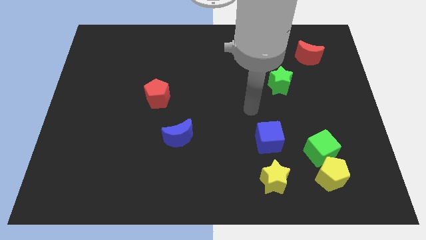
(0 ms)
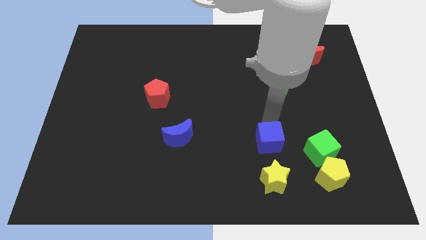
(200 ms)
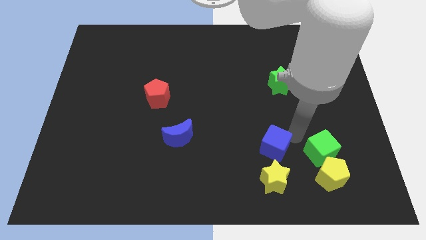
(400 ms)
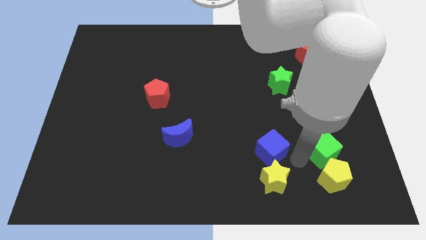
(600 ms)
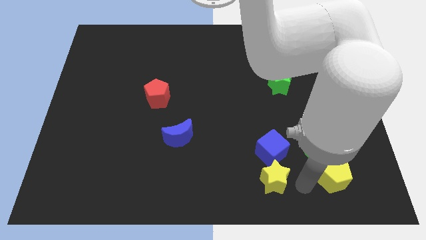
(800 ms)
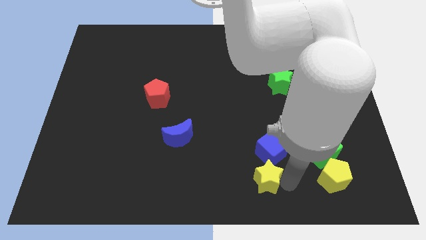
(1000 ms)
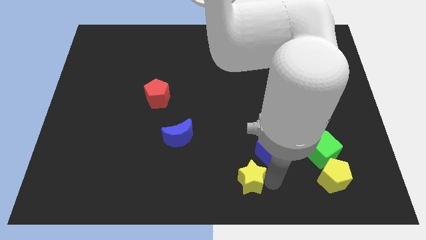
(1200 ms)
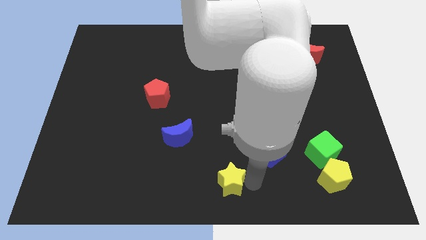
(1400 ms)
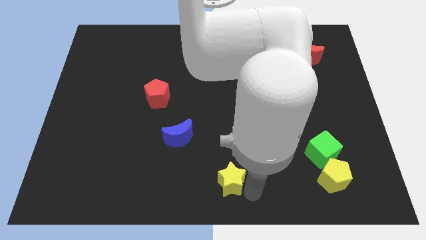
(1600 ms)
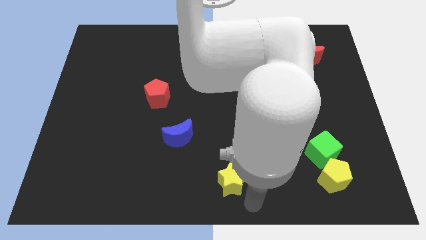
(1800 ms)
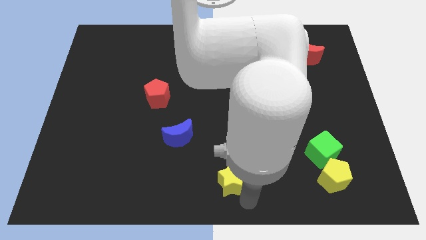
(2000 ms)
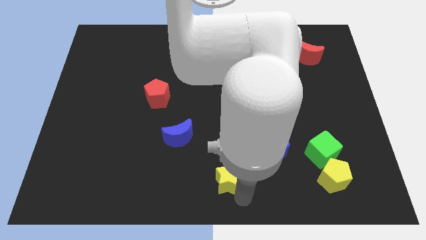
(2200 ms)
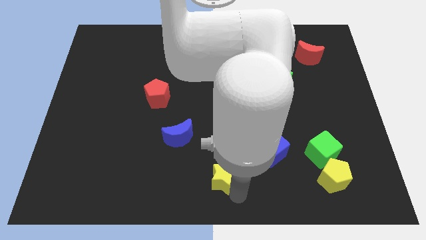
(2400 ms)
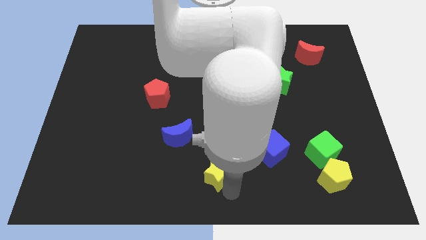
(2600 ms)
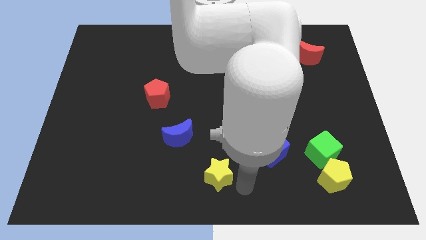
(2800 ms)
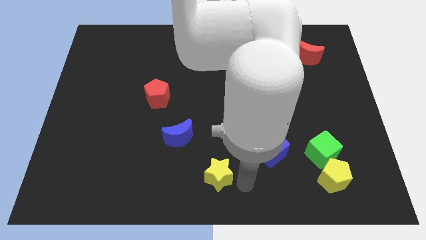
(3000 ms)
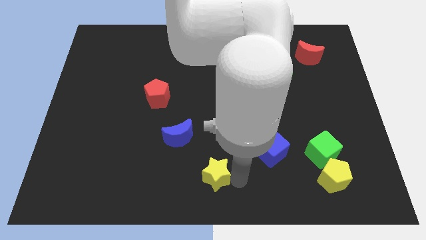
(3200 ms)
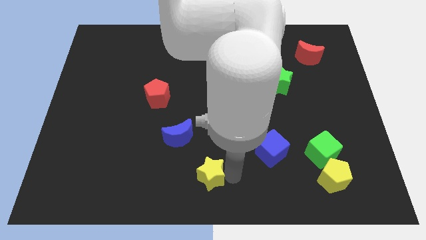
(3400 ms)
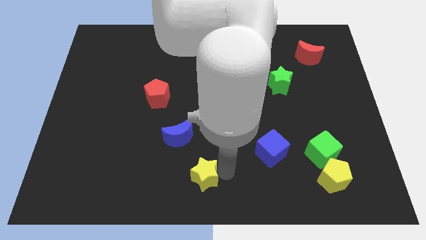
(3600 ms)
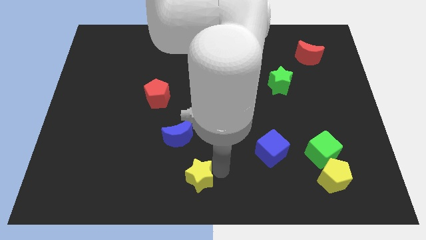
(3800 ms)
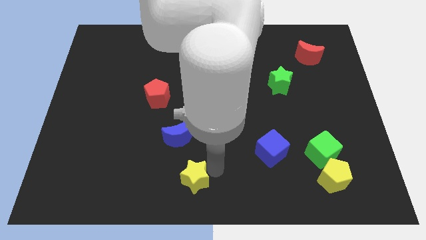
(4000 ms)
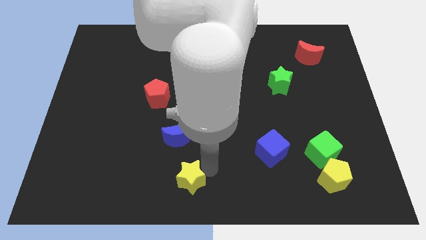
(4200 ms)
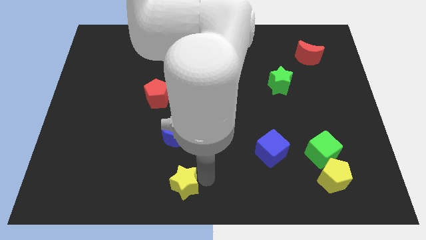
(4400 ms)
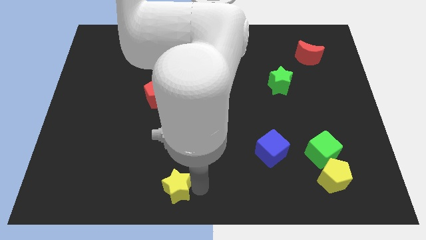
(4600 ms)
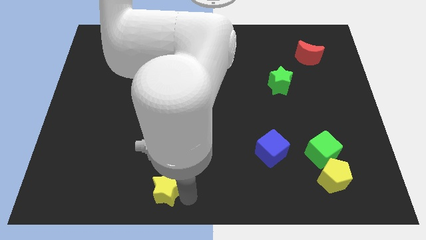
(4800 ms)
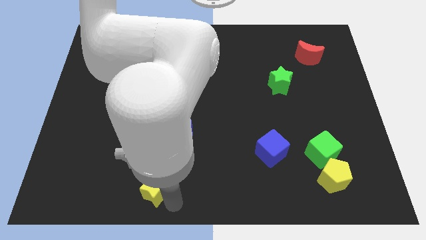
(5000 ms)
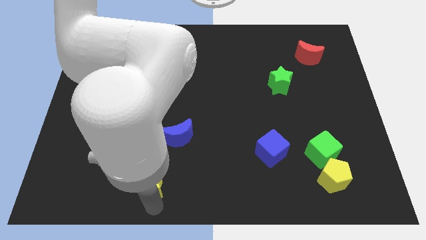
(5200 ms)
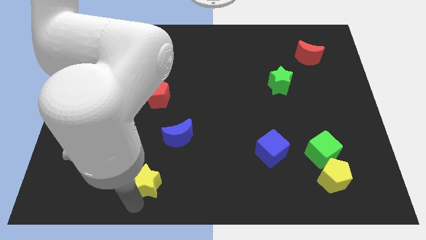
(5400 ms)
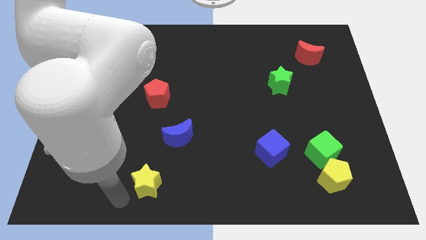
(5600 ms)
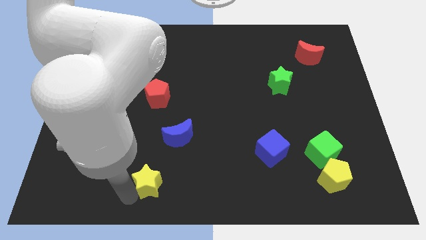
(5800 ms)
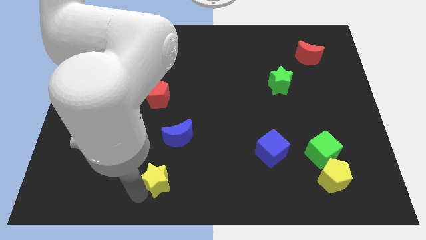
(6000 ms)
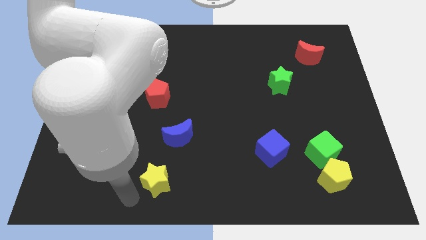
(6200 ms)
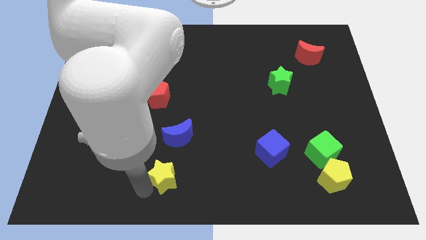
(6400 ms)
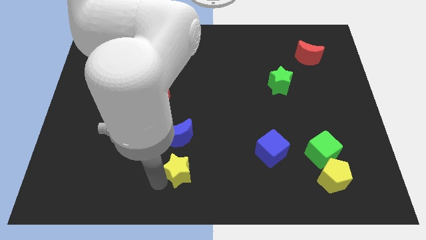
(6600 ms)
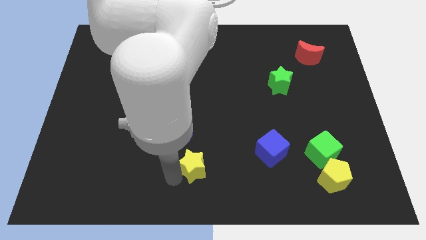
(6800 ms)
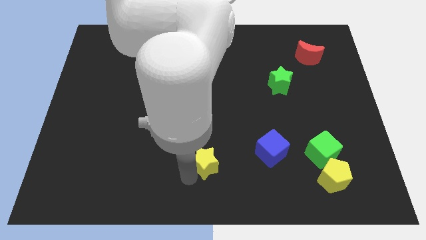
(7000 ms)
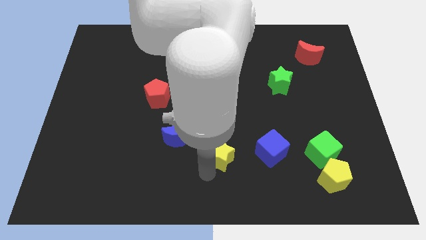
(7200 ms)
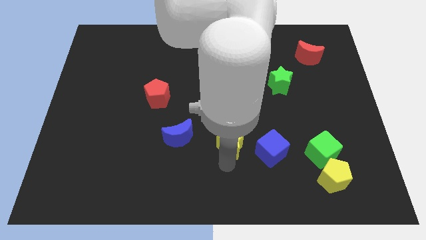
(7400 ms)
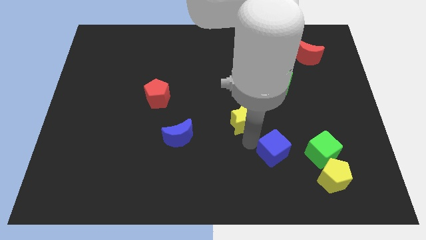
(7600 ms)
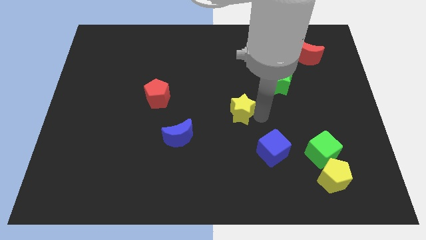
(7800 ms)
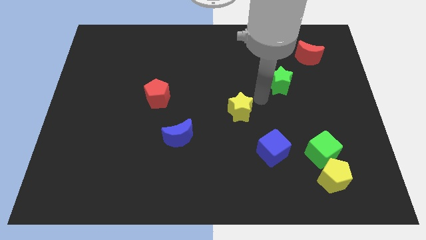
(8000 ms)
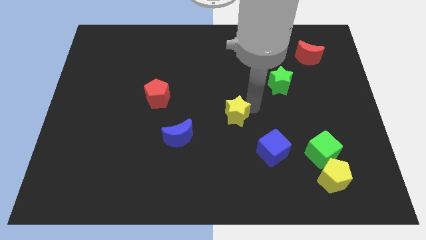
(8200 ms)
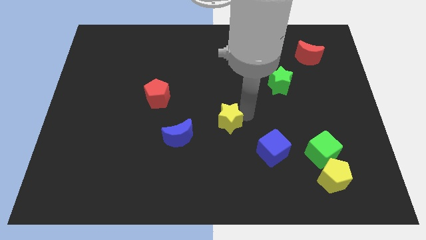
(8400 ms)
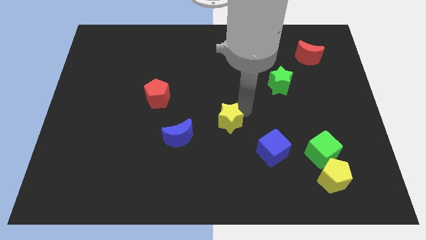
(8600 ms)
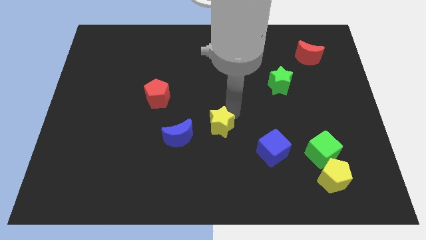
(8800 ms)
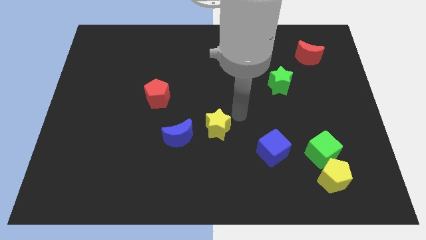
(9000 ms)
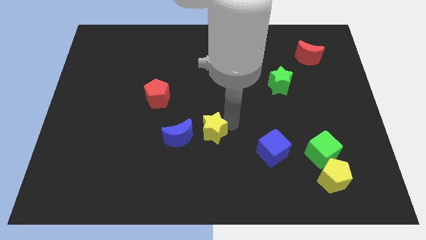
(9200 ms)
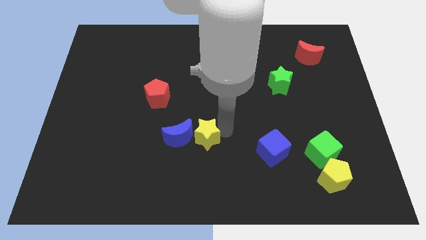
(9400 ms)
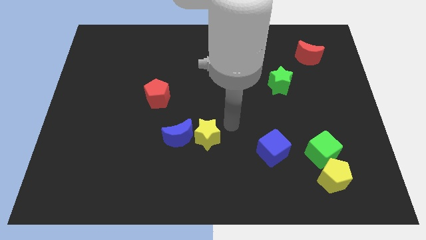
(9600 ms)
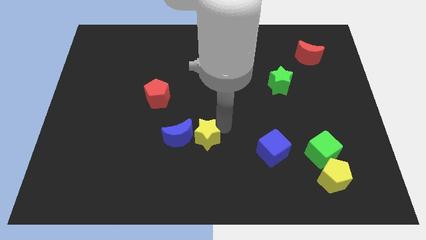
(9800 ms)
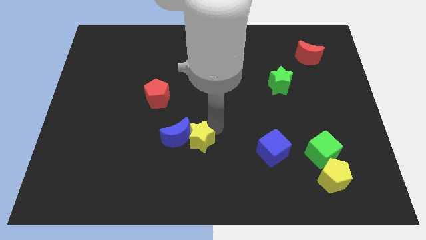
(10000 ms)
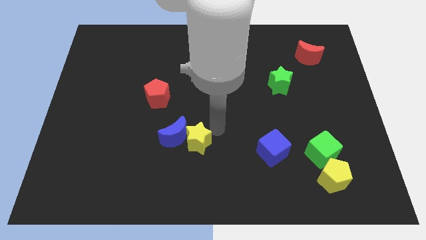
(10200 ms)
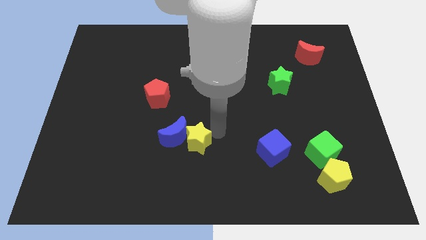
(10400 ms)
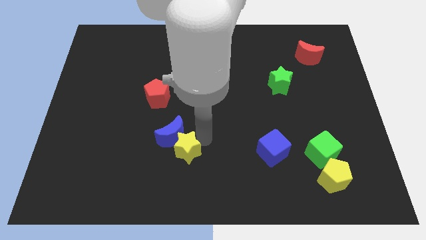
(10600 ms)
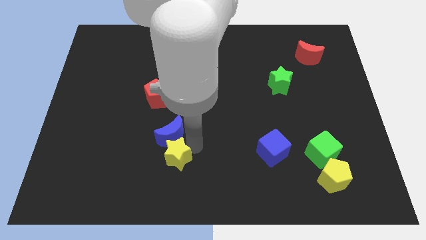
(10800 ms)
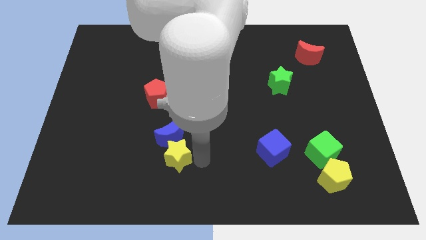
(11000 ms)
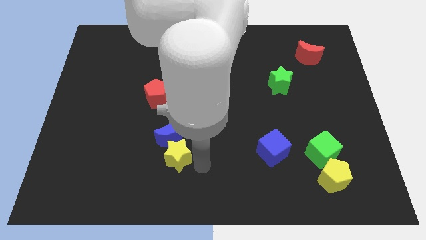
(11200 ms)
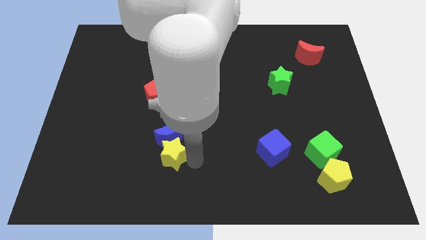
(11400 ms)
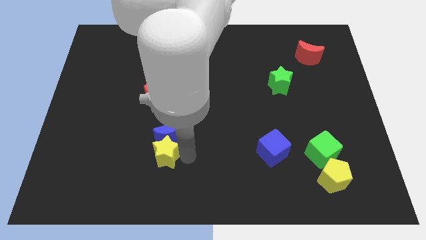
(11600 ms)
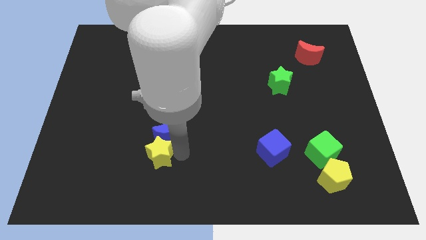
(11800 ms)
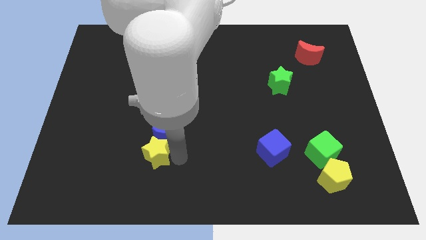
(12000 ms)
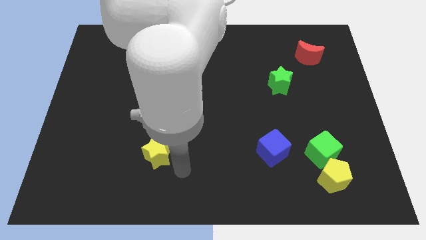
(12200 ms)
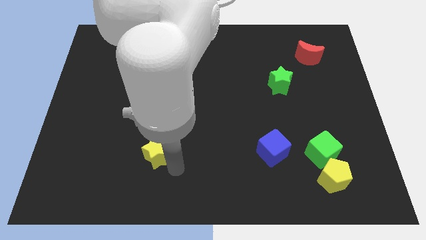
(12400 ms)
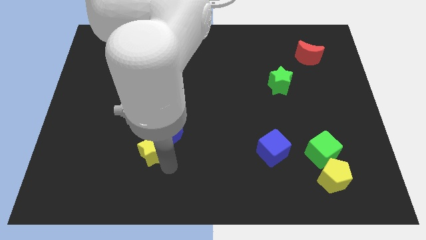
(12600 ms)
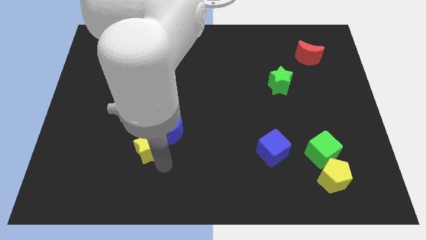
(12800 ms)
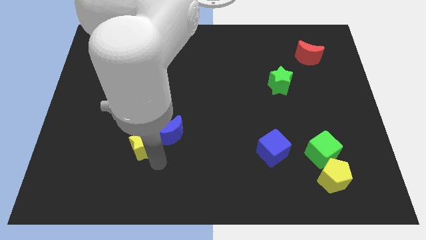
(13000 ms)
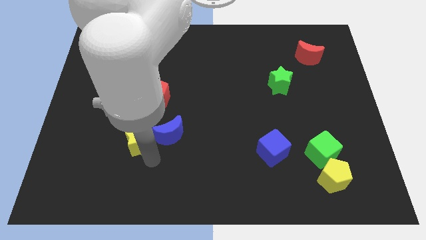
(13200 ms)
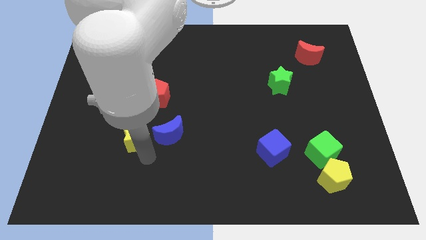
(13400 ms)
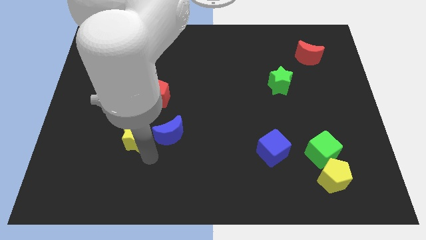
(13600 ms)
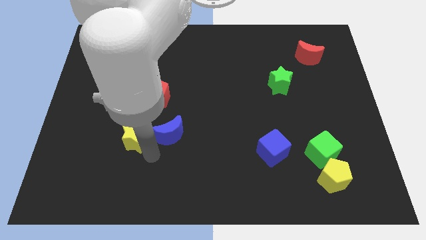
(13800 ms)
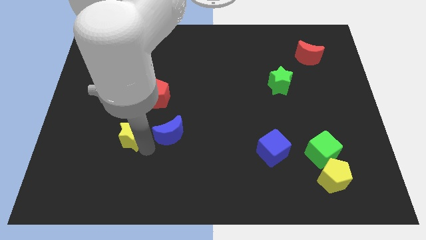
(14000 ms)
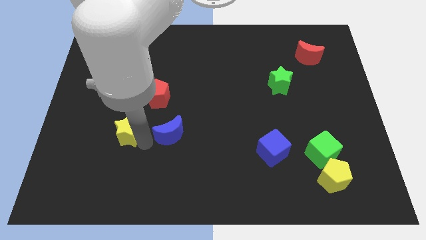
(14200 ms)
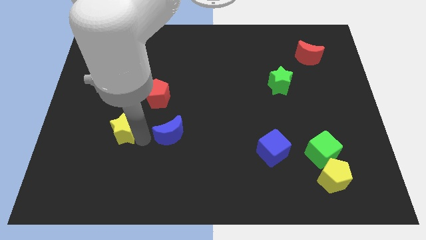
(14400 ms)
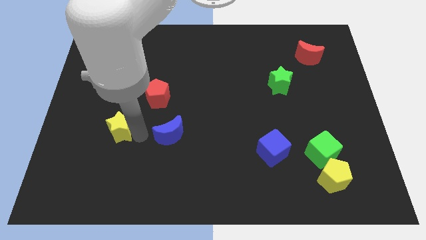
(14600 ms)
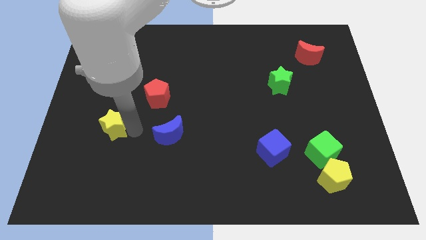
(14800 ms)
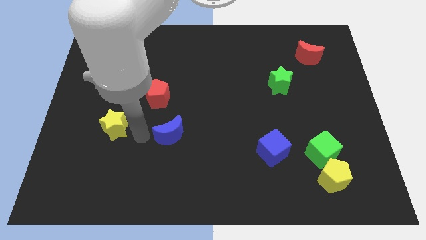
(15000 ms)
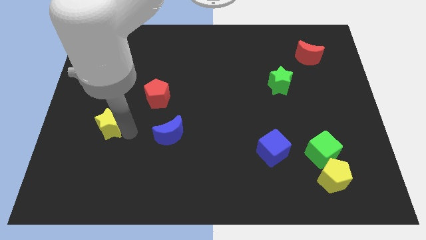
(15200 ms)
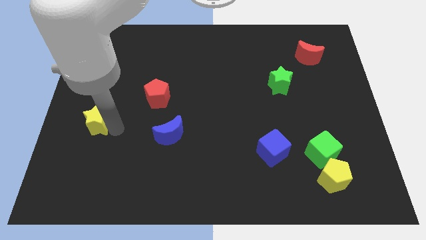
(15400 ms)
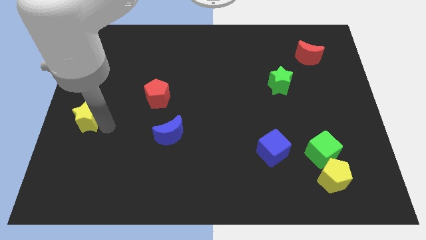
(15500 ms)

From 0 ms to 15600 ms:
move the yellow star to the left side
